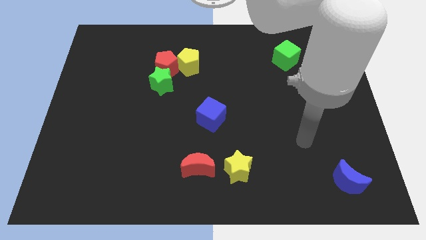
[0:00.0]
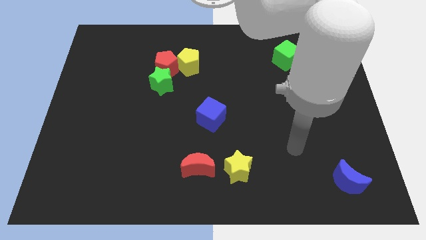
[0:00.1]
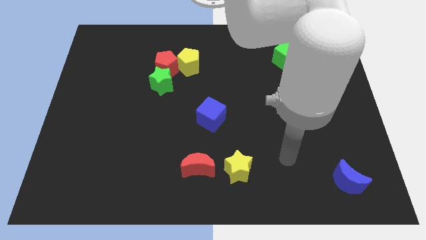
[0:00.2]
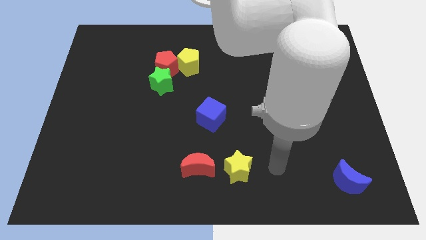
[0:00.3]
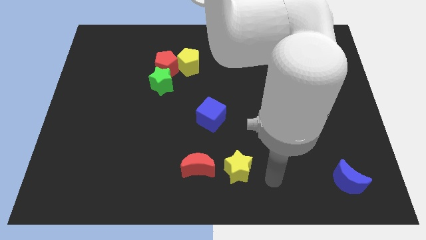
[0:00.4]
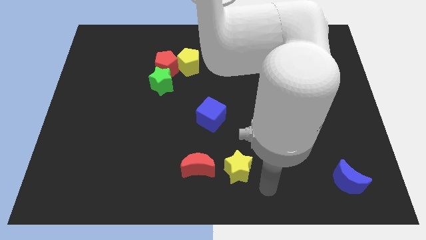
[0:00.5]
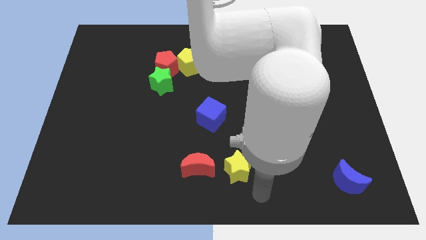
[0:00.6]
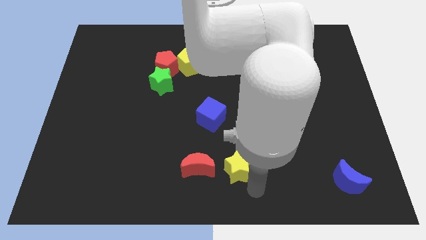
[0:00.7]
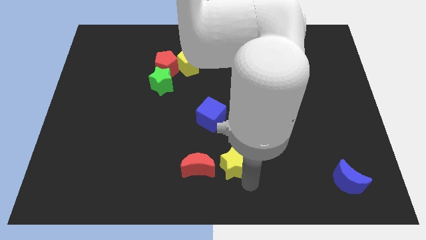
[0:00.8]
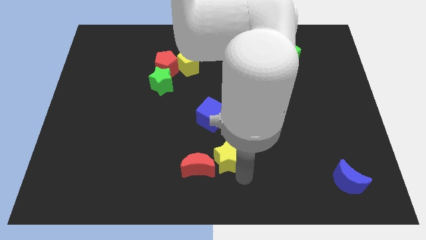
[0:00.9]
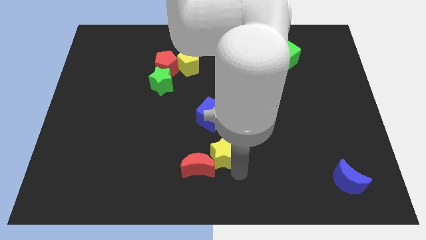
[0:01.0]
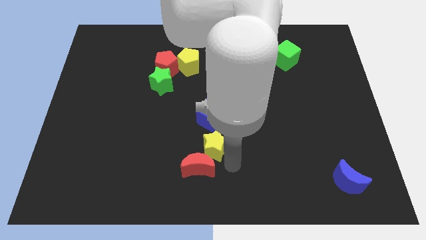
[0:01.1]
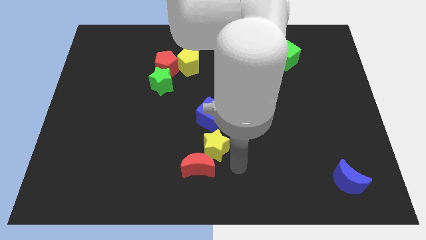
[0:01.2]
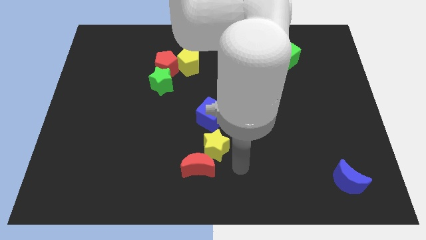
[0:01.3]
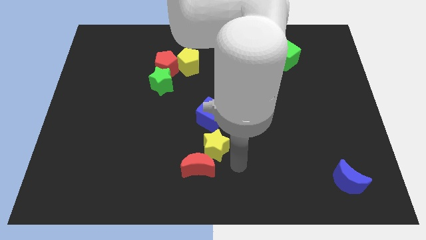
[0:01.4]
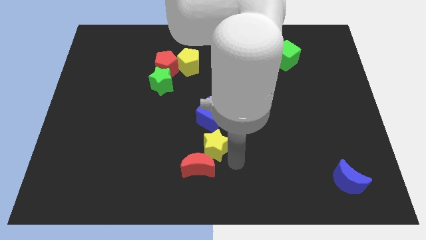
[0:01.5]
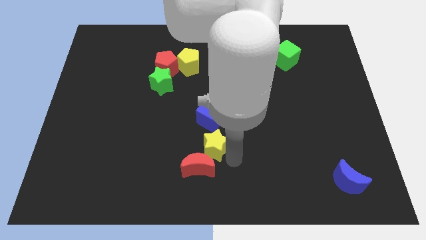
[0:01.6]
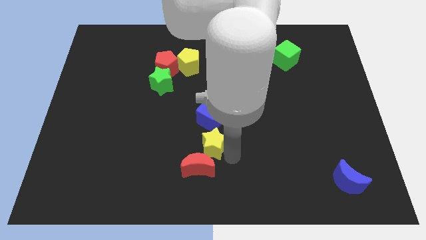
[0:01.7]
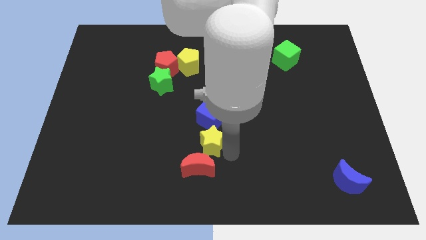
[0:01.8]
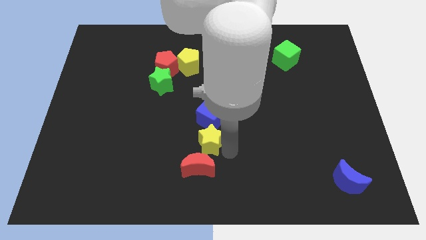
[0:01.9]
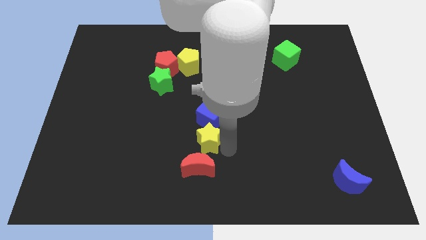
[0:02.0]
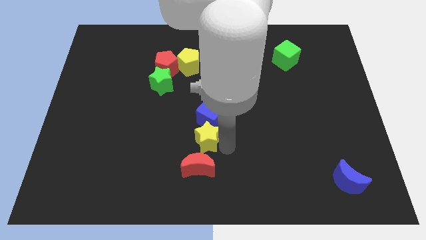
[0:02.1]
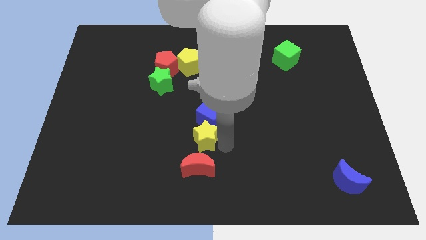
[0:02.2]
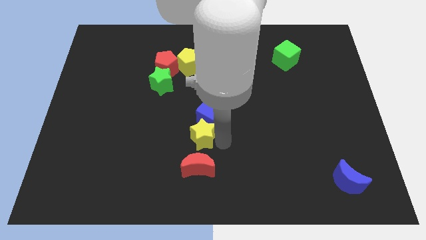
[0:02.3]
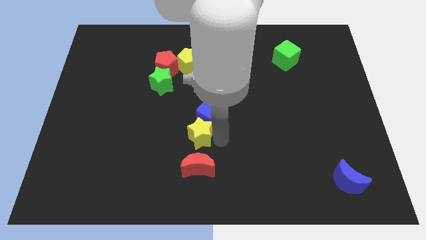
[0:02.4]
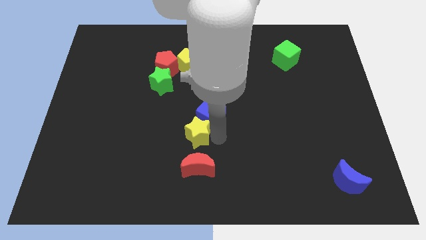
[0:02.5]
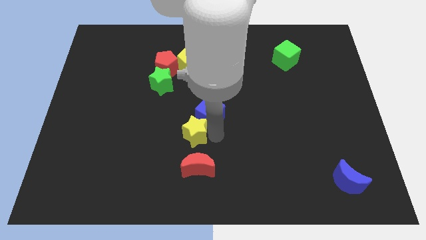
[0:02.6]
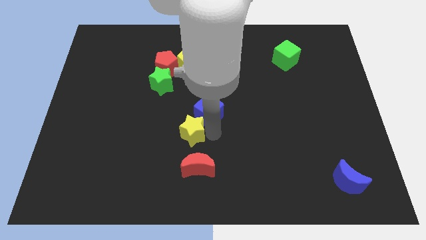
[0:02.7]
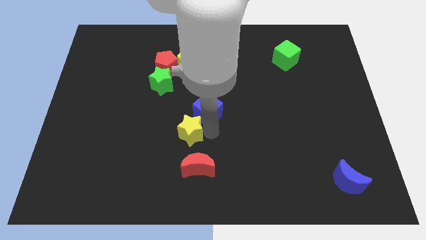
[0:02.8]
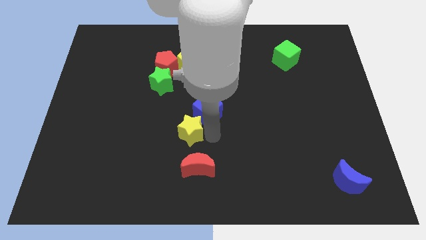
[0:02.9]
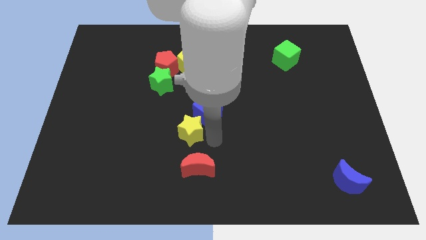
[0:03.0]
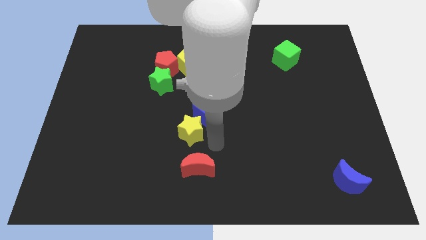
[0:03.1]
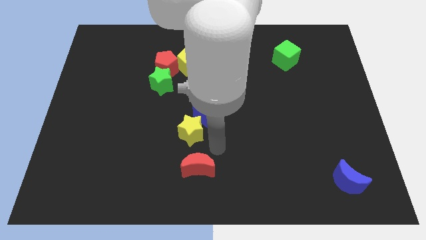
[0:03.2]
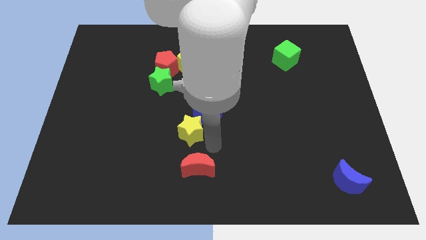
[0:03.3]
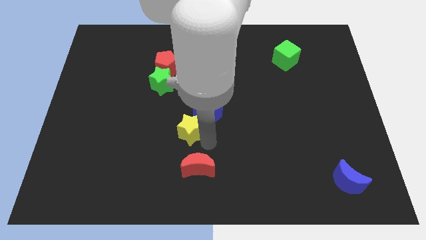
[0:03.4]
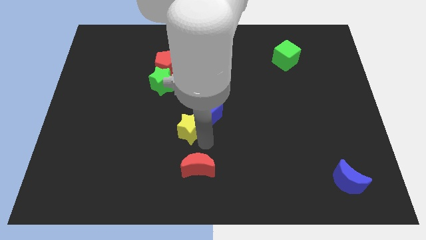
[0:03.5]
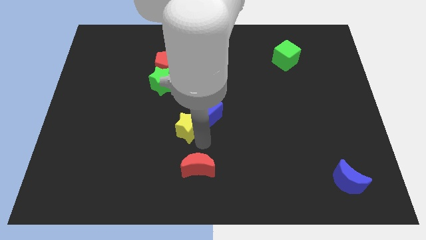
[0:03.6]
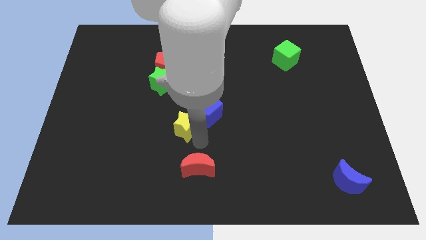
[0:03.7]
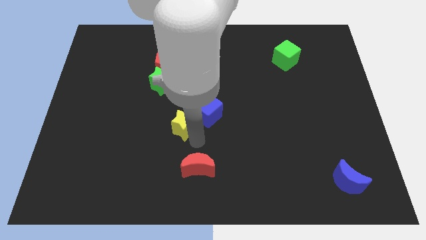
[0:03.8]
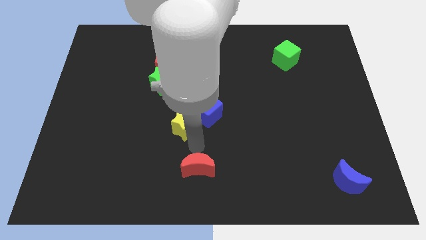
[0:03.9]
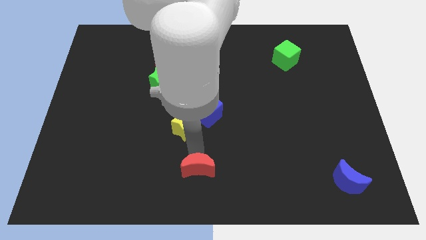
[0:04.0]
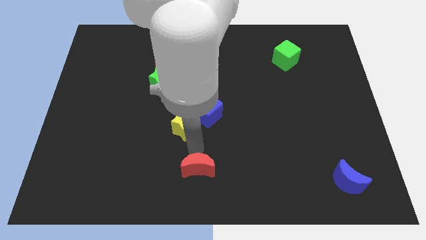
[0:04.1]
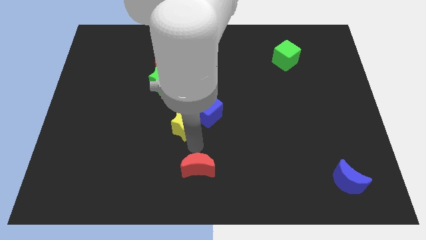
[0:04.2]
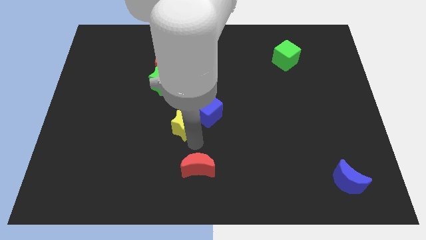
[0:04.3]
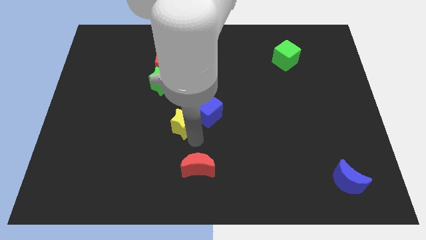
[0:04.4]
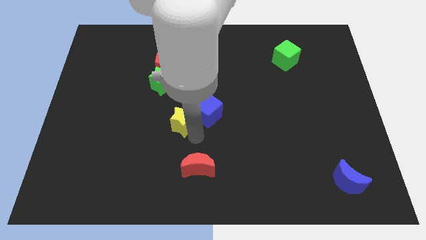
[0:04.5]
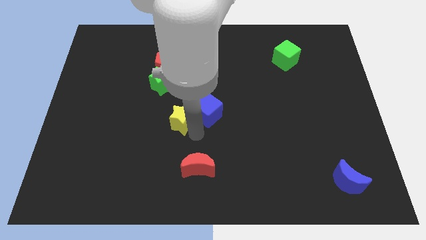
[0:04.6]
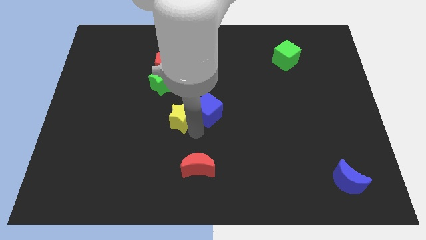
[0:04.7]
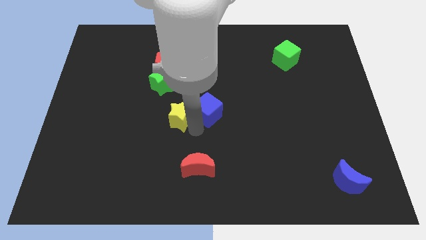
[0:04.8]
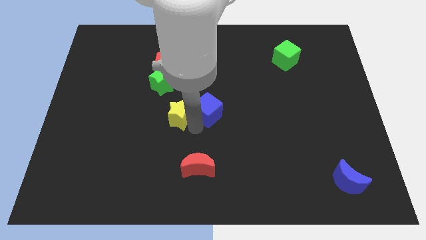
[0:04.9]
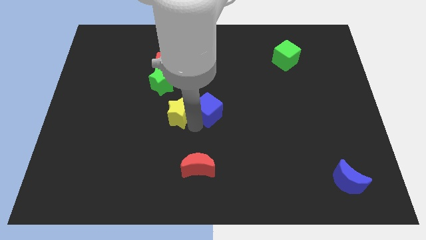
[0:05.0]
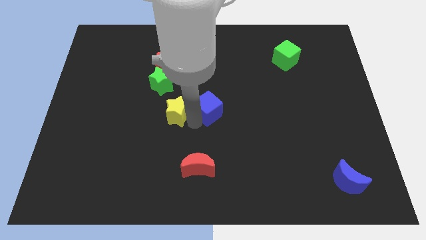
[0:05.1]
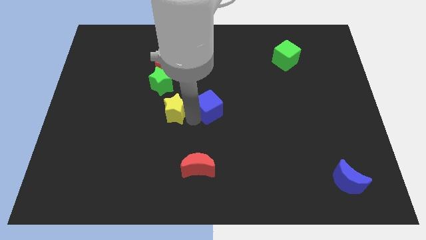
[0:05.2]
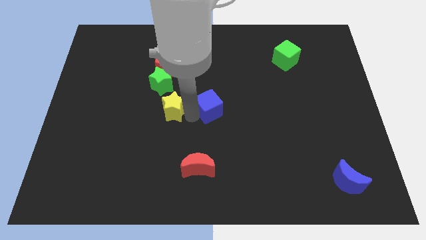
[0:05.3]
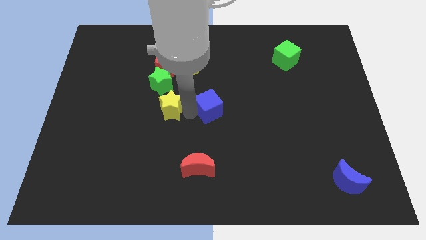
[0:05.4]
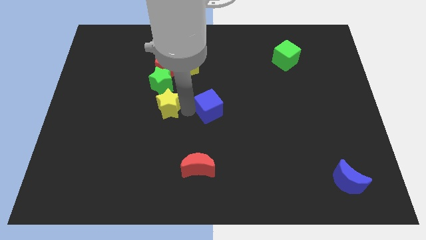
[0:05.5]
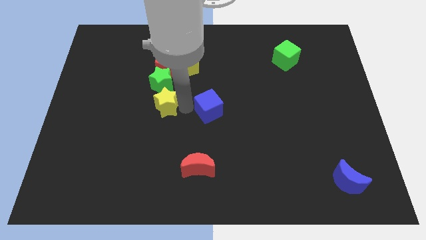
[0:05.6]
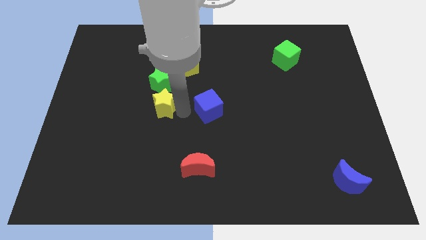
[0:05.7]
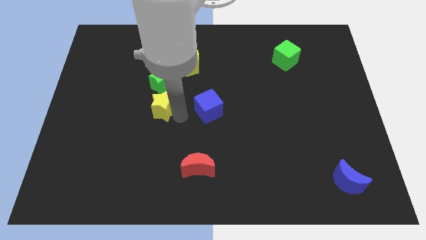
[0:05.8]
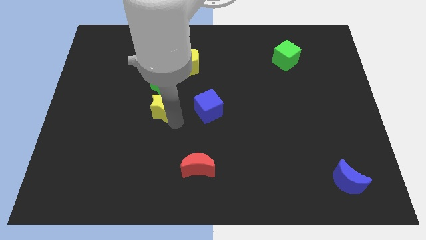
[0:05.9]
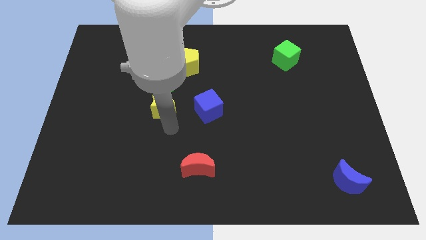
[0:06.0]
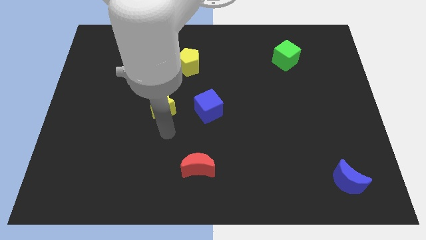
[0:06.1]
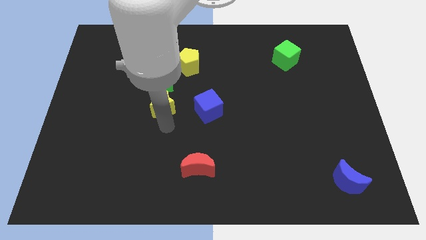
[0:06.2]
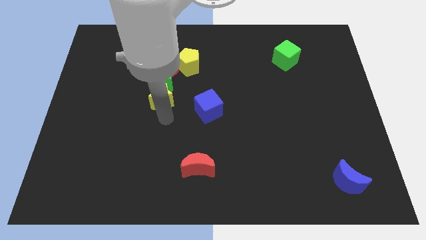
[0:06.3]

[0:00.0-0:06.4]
slide the yellow star towards the green star
